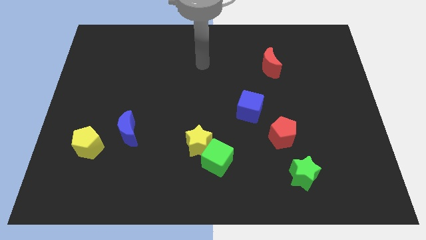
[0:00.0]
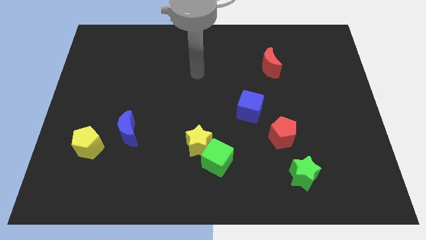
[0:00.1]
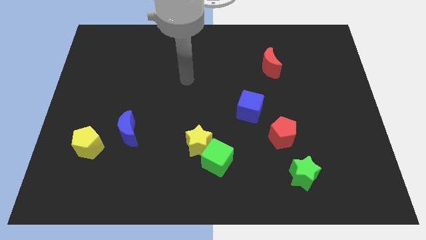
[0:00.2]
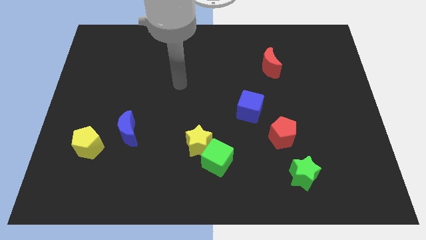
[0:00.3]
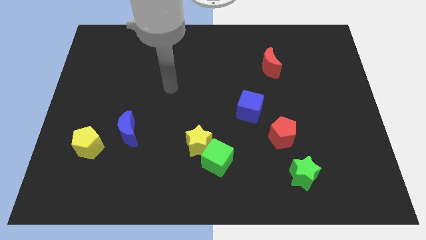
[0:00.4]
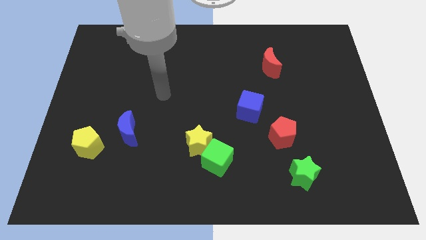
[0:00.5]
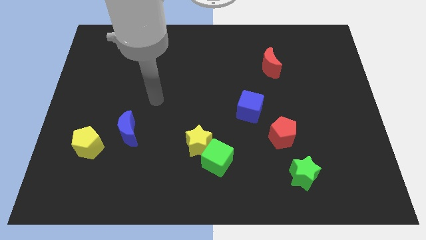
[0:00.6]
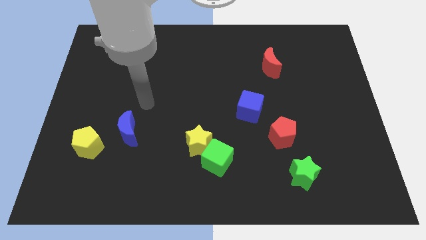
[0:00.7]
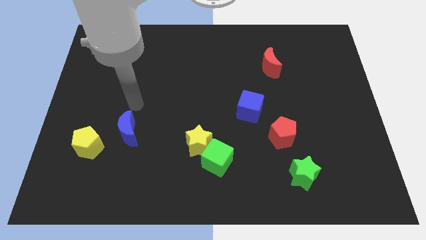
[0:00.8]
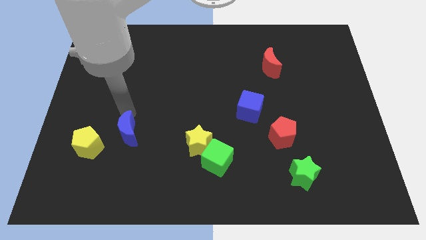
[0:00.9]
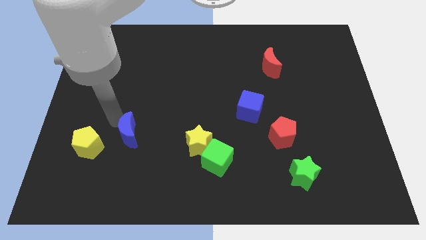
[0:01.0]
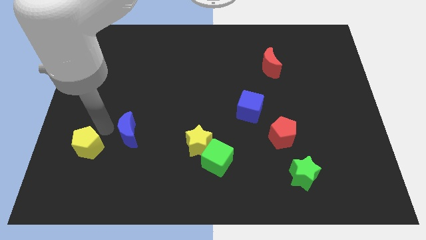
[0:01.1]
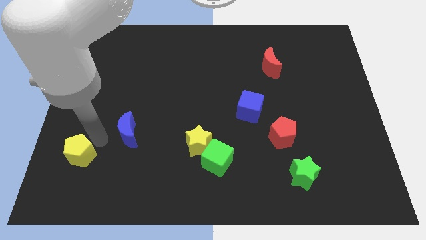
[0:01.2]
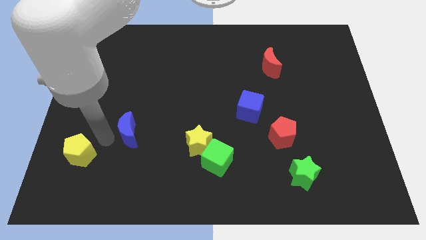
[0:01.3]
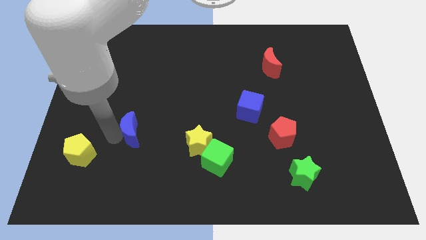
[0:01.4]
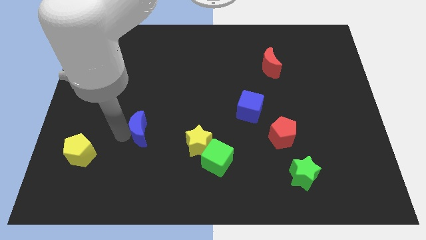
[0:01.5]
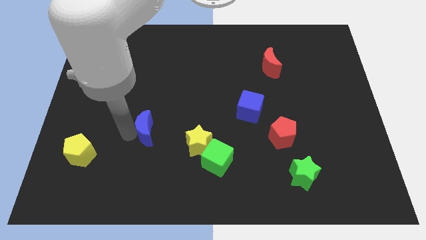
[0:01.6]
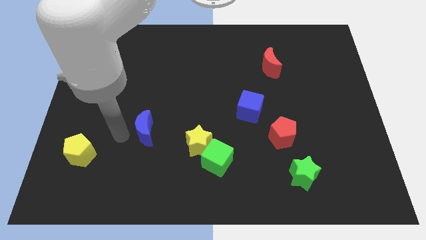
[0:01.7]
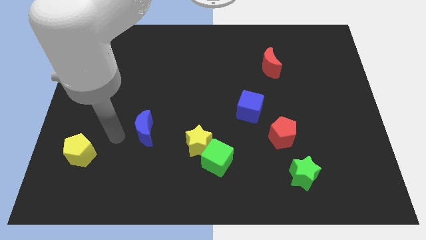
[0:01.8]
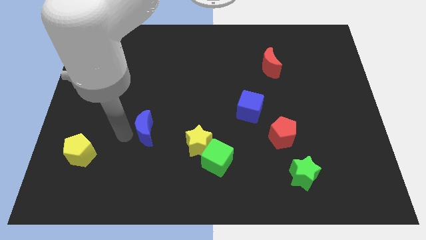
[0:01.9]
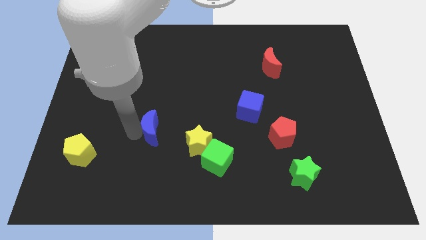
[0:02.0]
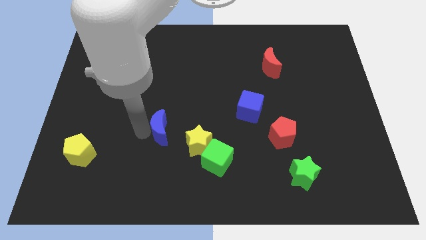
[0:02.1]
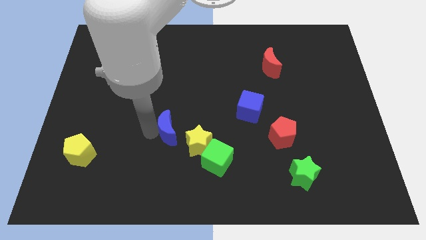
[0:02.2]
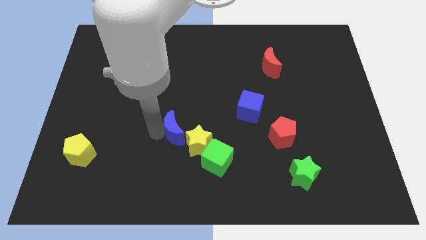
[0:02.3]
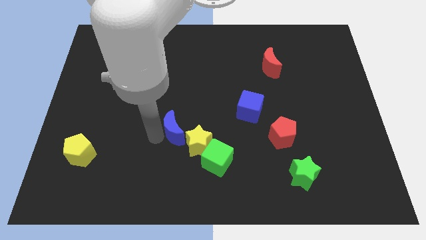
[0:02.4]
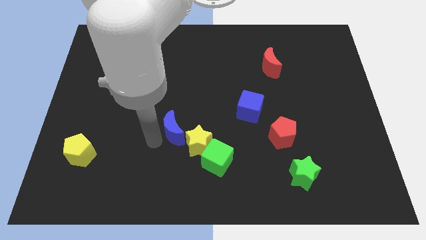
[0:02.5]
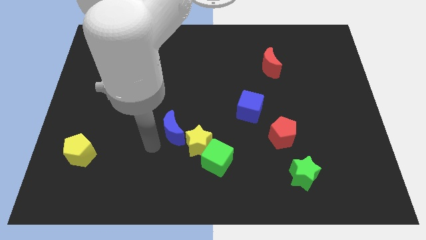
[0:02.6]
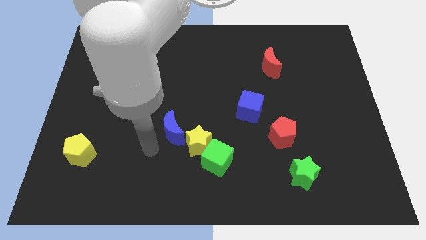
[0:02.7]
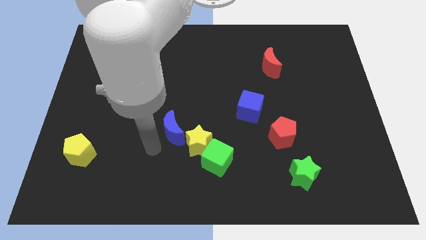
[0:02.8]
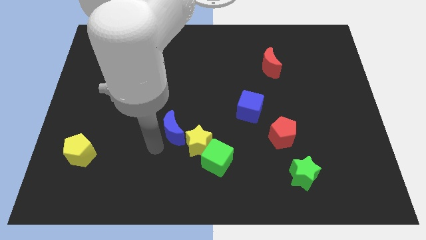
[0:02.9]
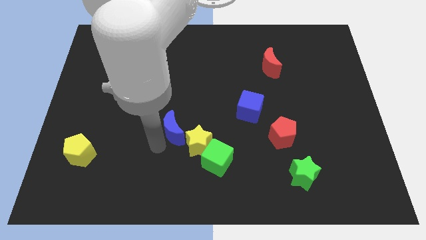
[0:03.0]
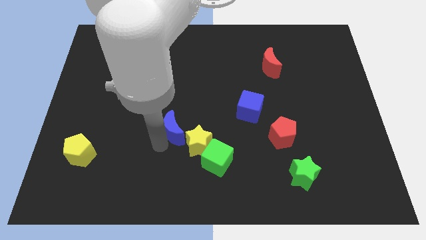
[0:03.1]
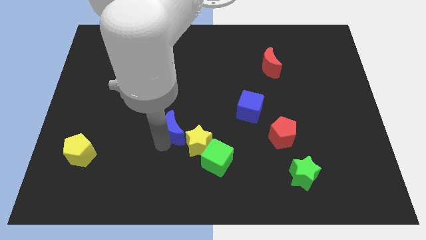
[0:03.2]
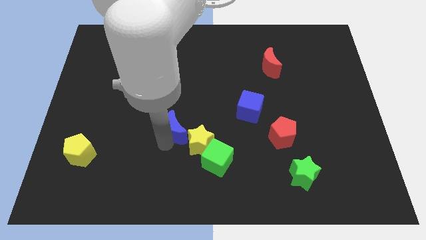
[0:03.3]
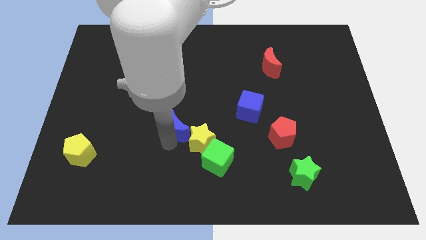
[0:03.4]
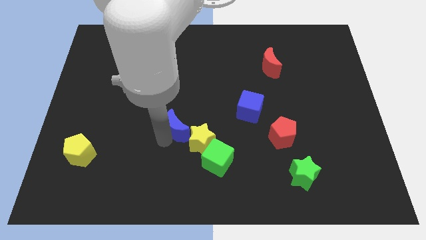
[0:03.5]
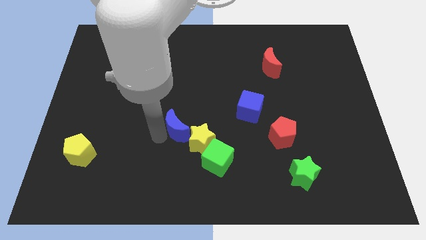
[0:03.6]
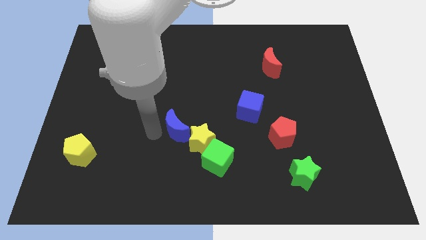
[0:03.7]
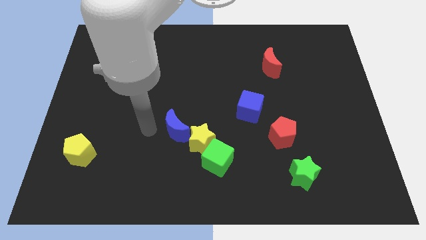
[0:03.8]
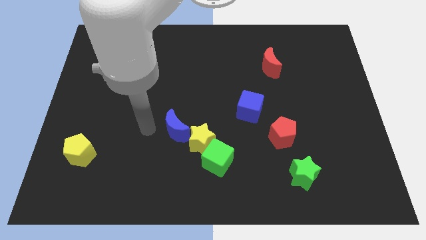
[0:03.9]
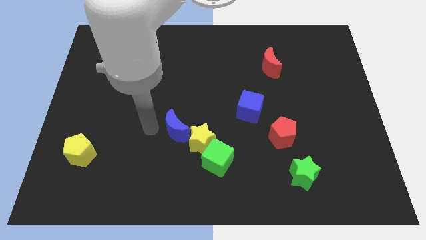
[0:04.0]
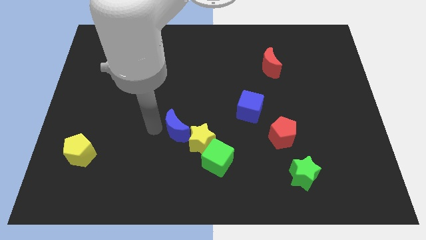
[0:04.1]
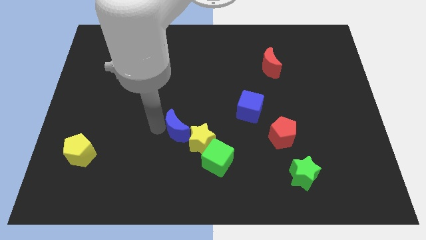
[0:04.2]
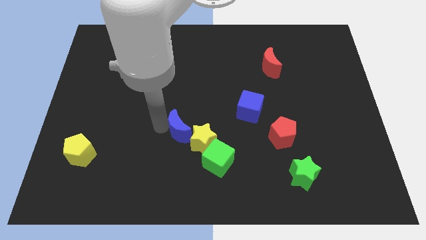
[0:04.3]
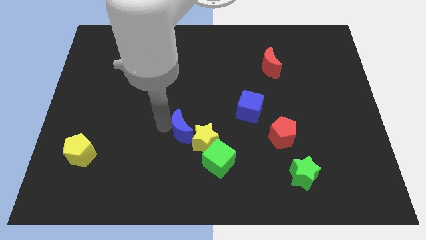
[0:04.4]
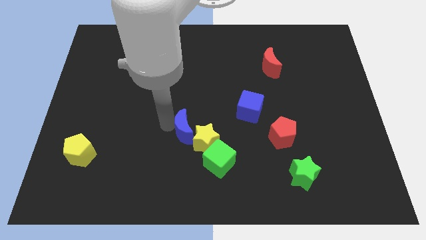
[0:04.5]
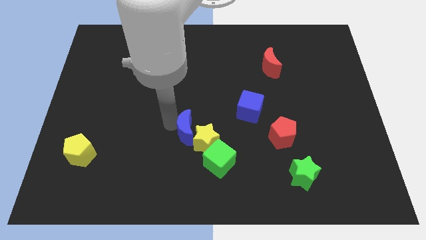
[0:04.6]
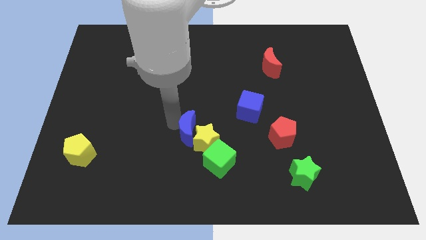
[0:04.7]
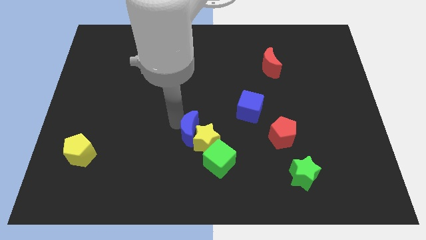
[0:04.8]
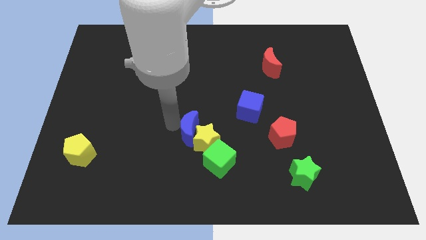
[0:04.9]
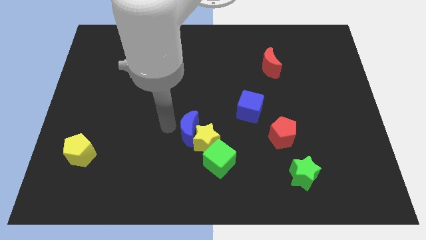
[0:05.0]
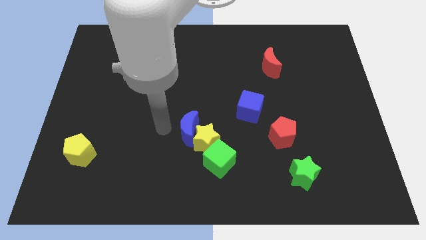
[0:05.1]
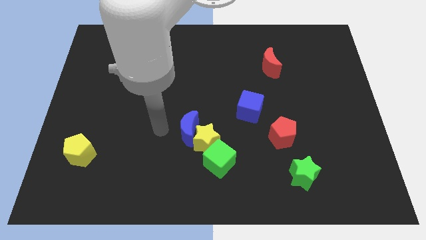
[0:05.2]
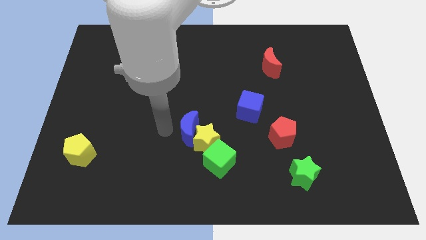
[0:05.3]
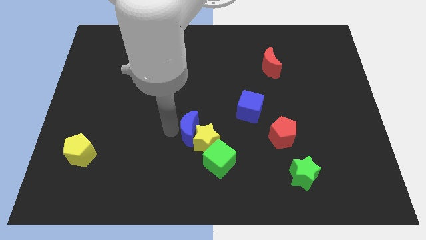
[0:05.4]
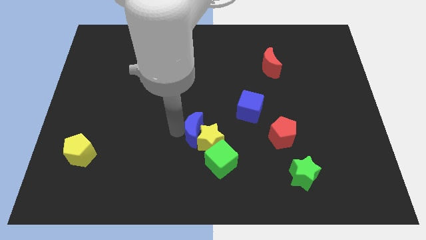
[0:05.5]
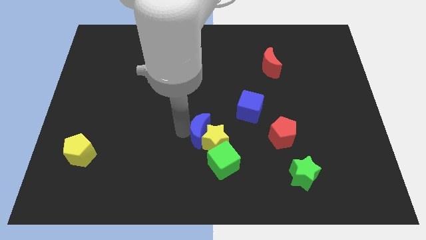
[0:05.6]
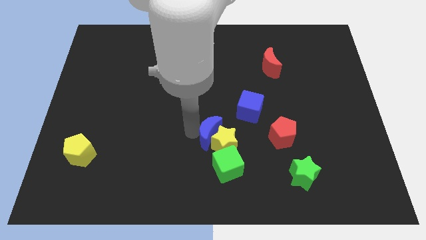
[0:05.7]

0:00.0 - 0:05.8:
put the blue moon just left of the red pentagon

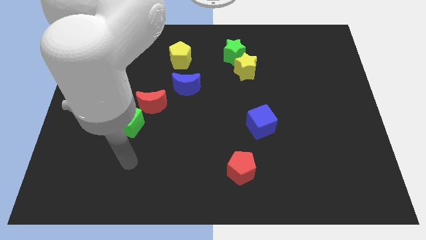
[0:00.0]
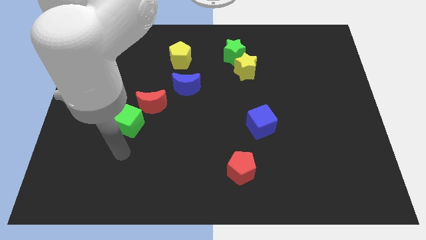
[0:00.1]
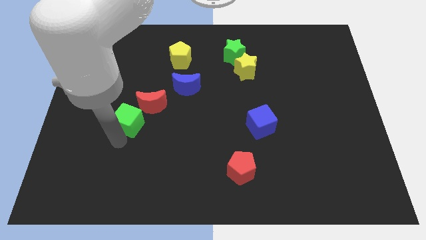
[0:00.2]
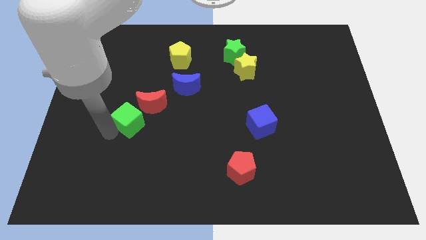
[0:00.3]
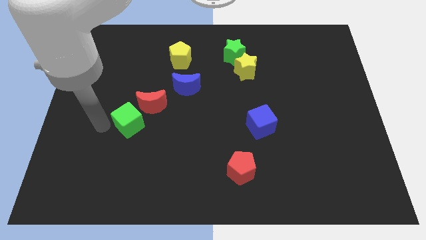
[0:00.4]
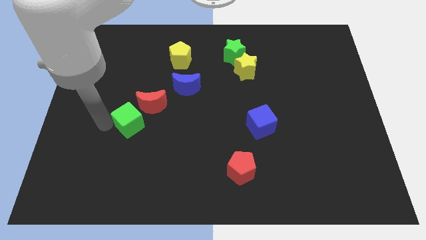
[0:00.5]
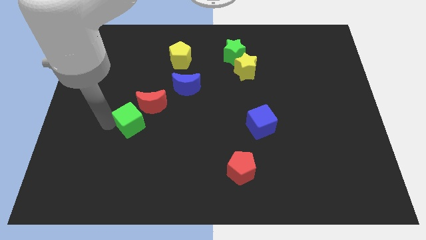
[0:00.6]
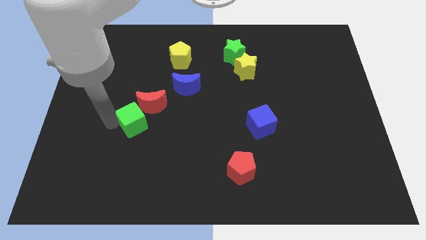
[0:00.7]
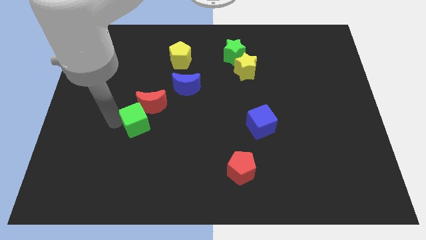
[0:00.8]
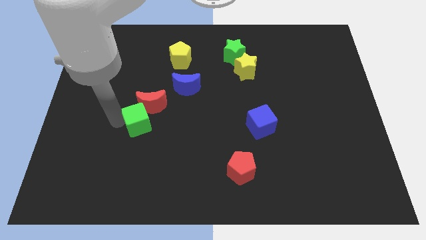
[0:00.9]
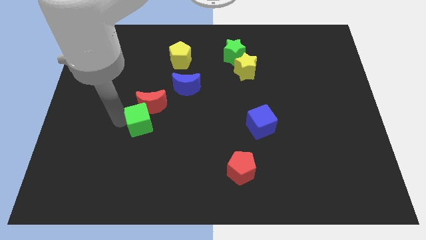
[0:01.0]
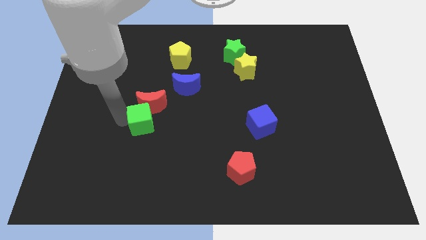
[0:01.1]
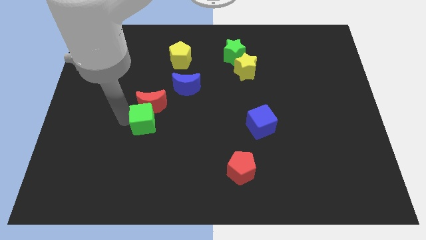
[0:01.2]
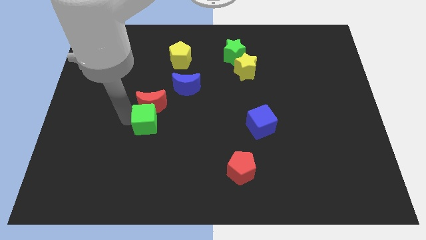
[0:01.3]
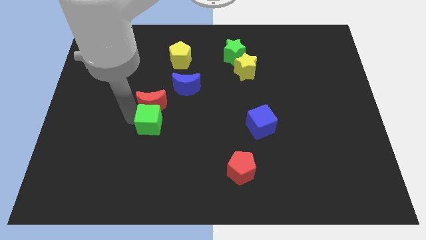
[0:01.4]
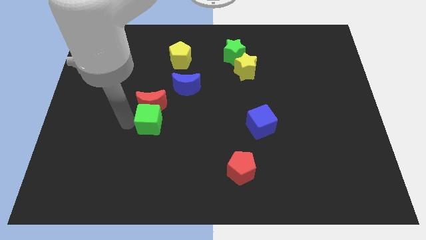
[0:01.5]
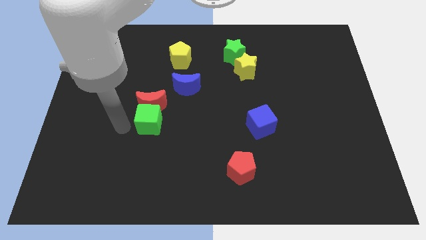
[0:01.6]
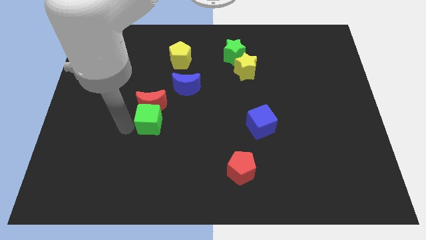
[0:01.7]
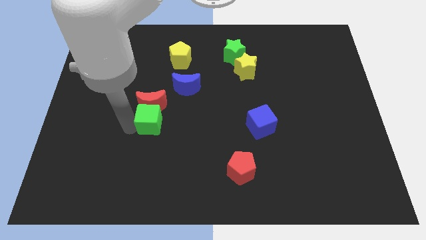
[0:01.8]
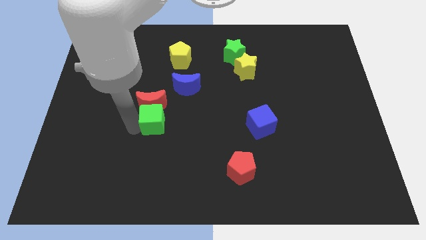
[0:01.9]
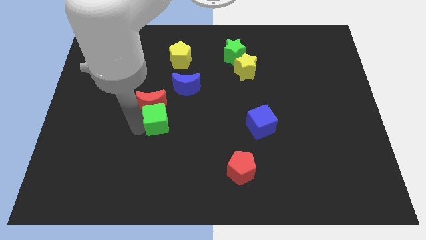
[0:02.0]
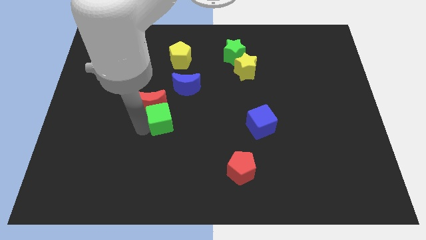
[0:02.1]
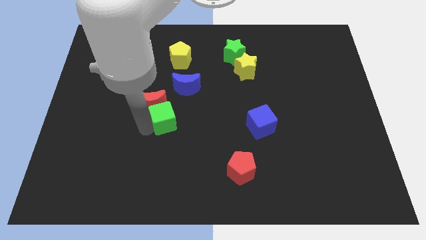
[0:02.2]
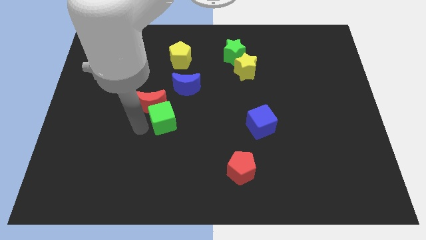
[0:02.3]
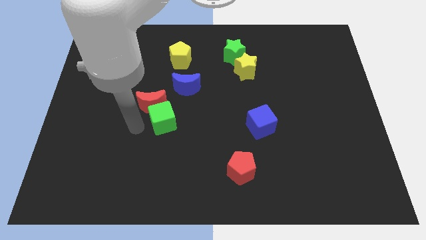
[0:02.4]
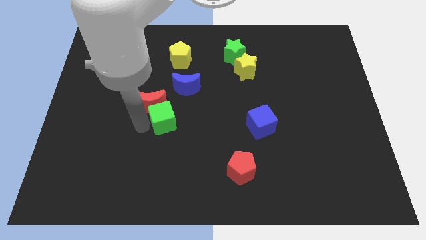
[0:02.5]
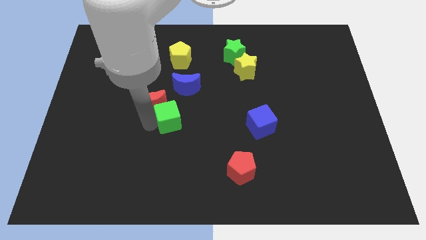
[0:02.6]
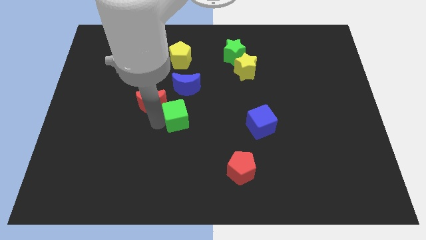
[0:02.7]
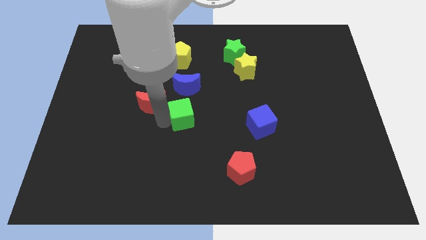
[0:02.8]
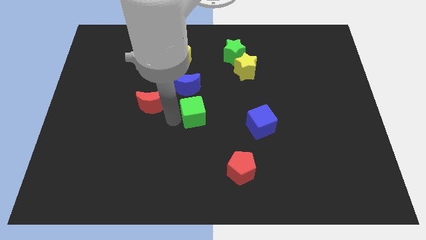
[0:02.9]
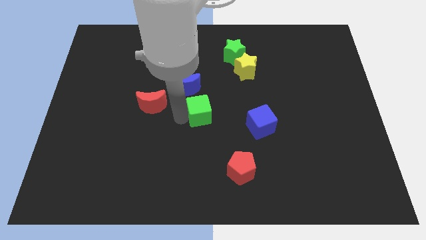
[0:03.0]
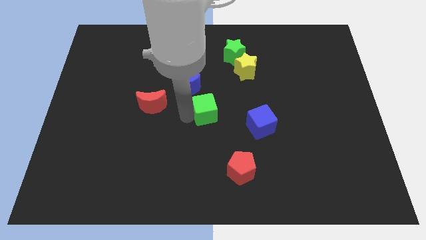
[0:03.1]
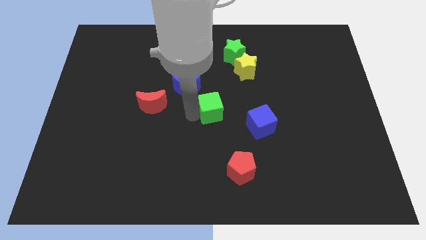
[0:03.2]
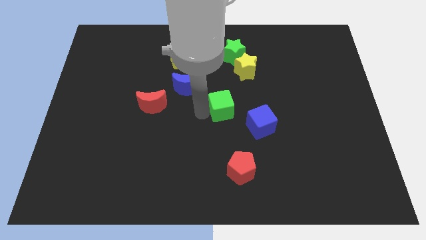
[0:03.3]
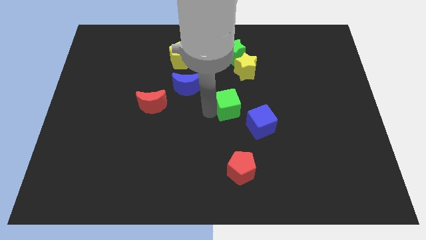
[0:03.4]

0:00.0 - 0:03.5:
slide the green cube below the yellow star
